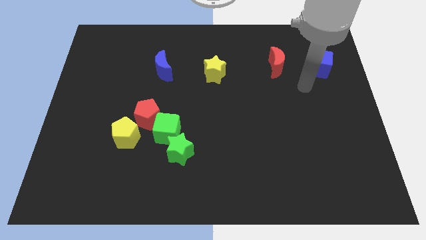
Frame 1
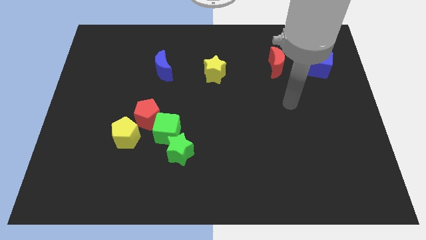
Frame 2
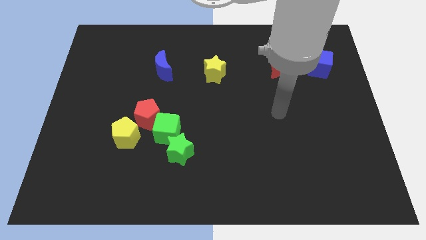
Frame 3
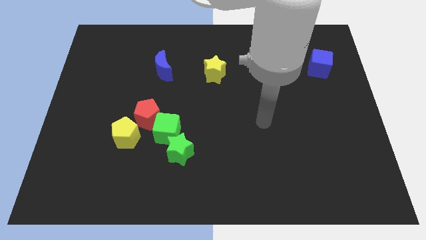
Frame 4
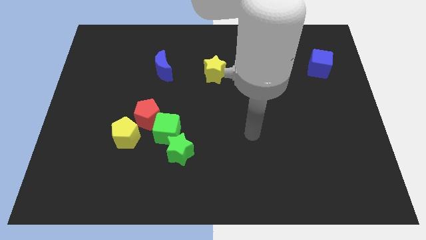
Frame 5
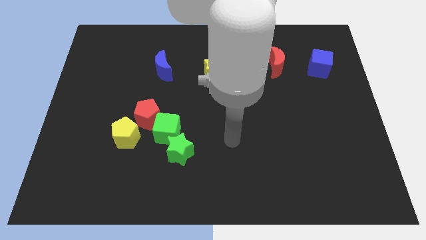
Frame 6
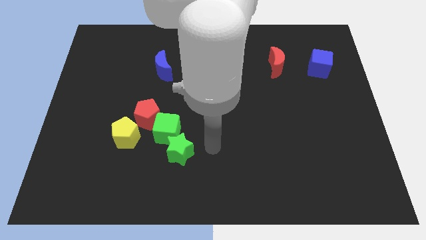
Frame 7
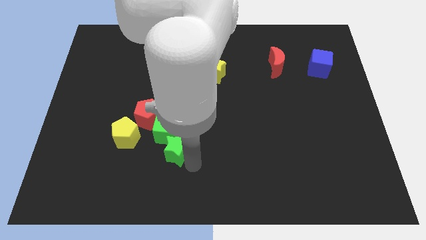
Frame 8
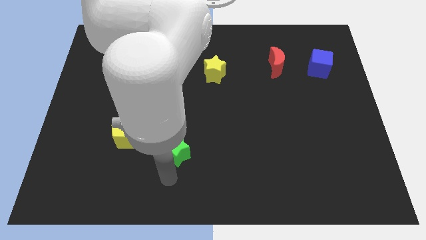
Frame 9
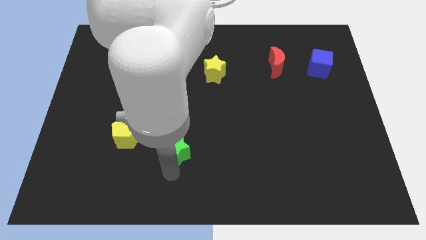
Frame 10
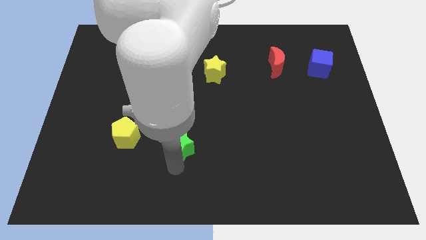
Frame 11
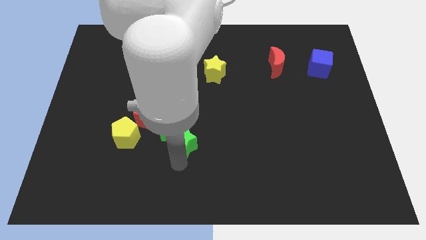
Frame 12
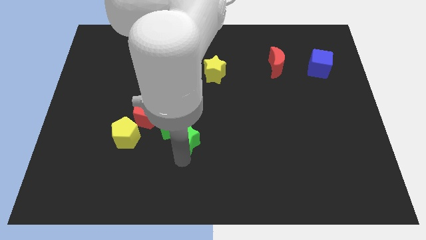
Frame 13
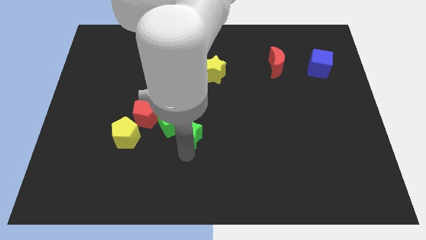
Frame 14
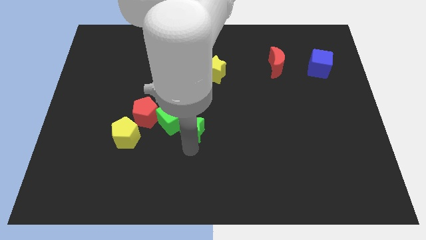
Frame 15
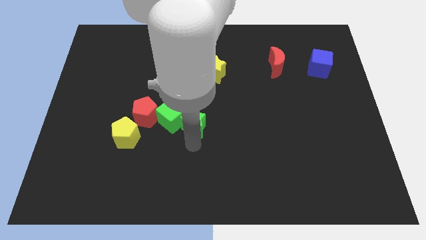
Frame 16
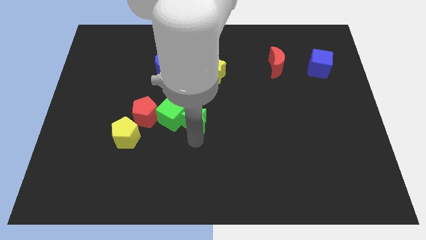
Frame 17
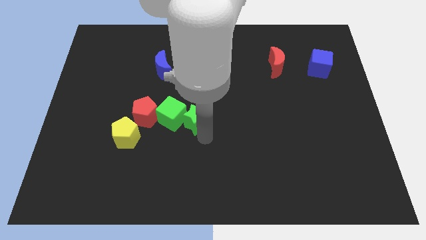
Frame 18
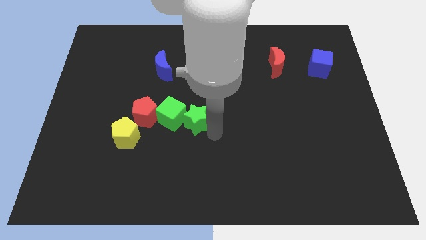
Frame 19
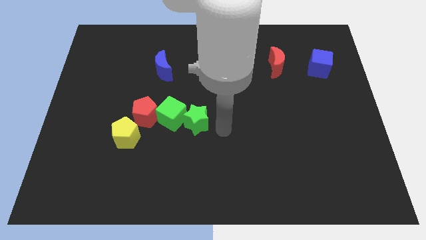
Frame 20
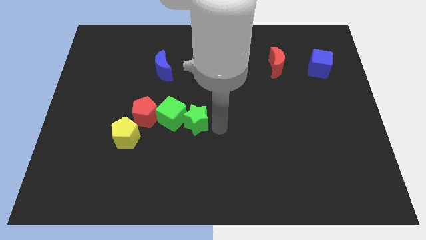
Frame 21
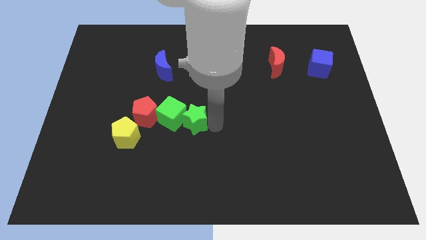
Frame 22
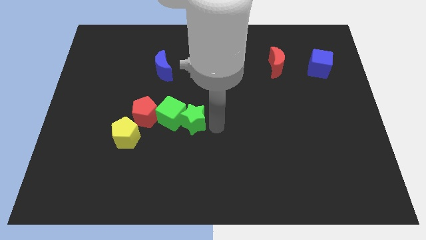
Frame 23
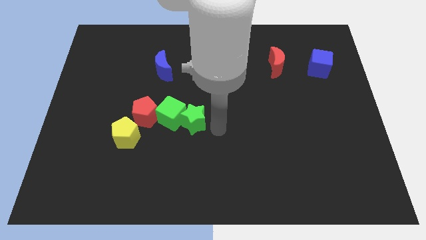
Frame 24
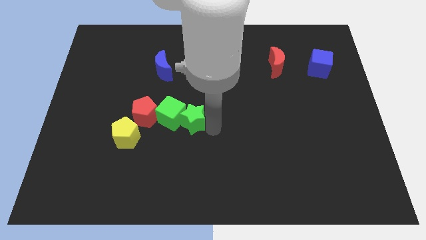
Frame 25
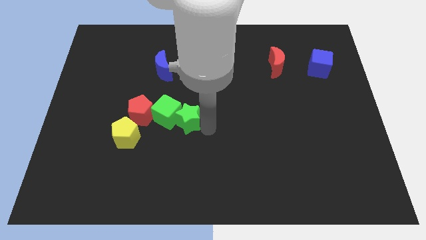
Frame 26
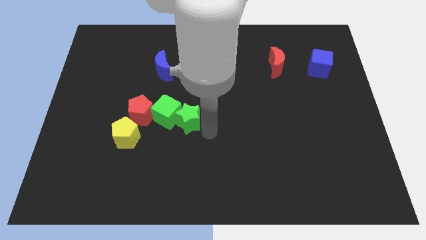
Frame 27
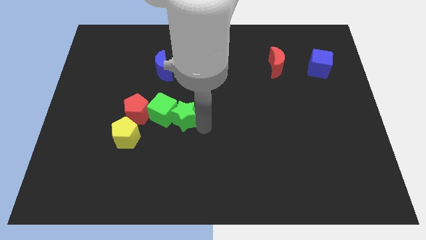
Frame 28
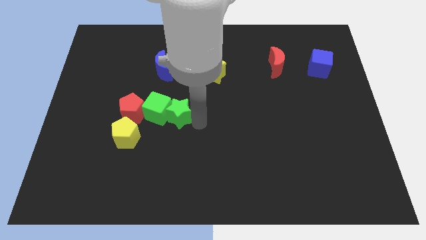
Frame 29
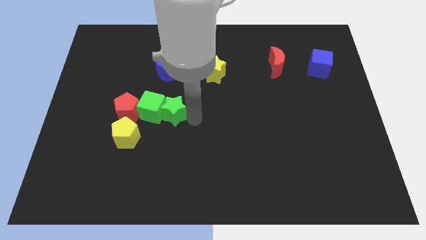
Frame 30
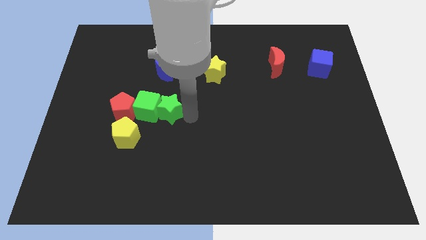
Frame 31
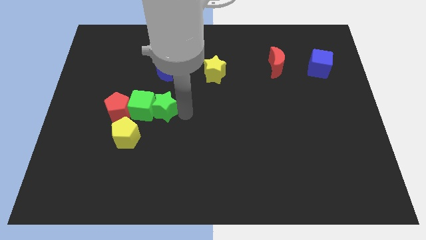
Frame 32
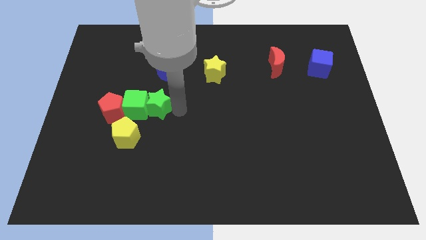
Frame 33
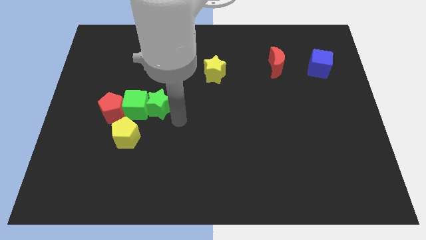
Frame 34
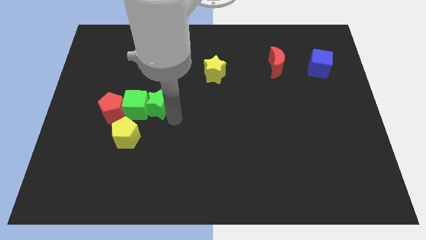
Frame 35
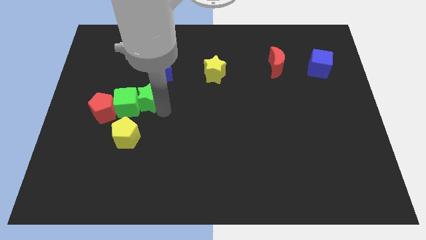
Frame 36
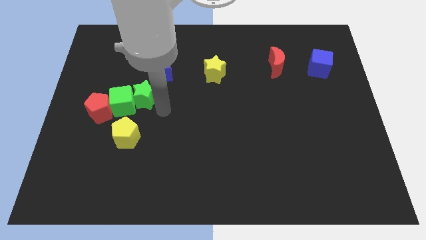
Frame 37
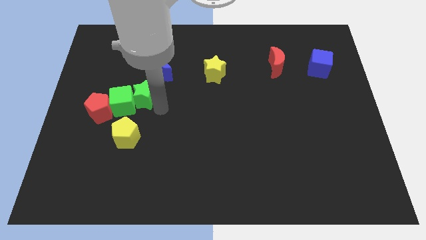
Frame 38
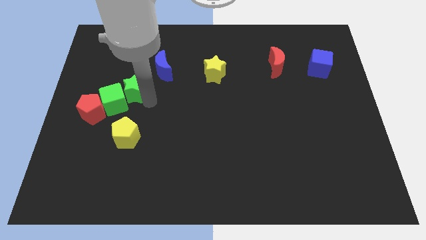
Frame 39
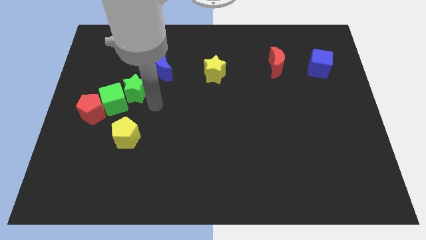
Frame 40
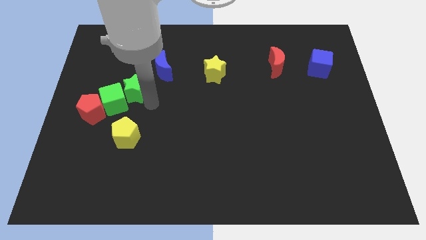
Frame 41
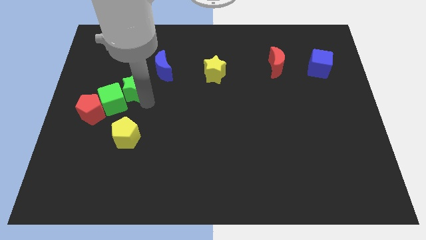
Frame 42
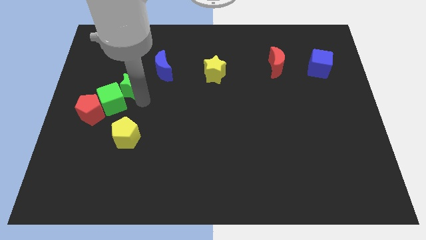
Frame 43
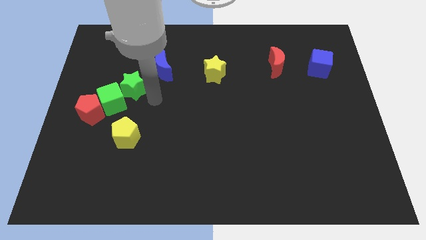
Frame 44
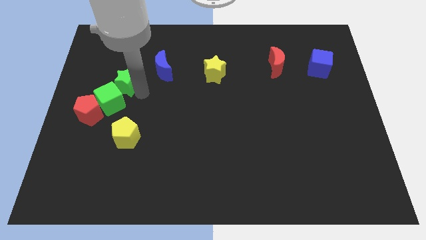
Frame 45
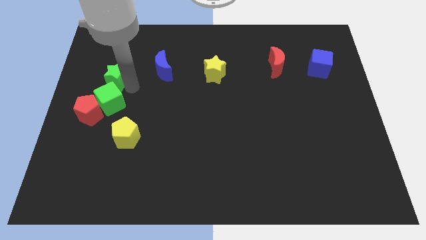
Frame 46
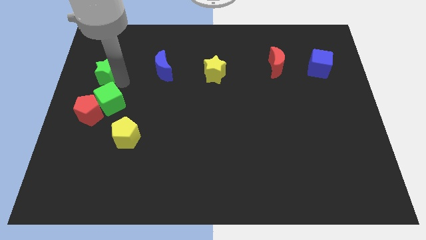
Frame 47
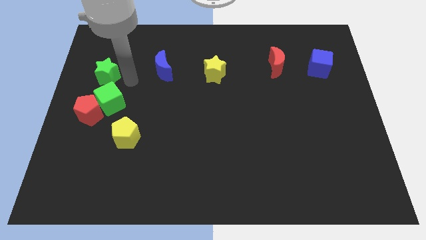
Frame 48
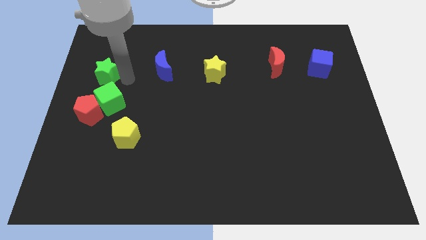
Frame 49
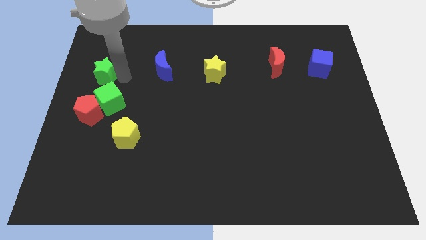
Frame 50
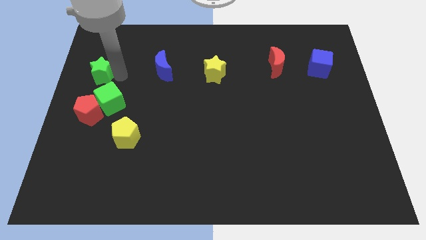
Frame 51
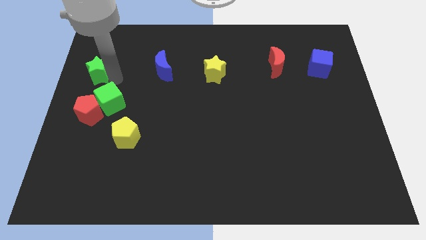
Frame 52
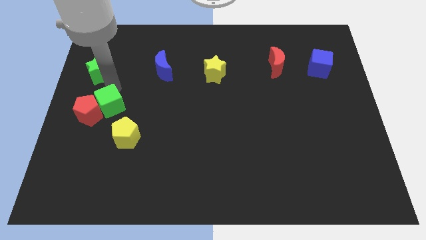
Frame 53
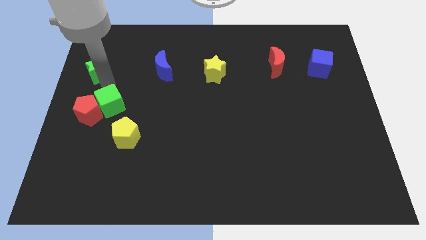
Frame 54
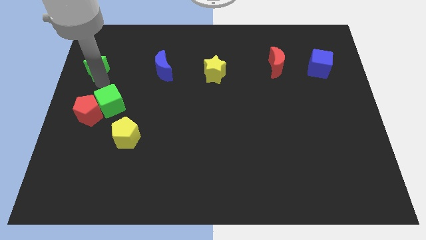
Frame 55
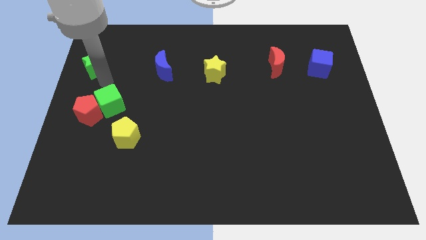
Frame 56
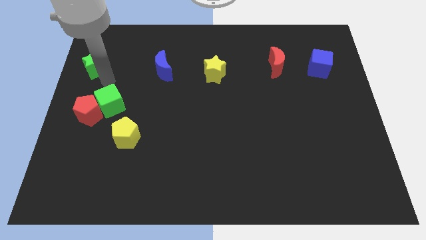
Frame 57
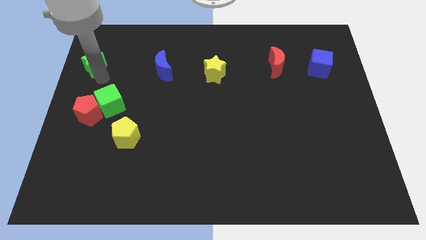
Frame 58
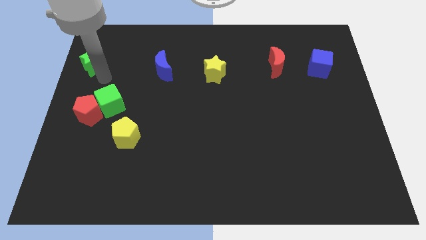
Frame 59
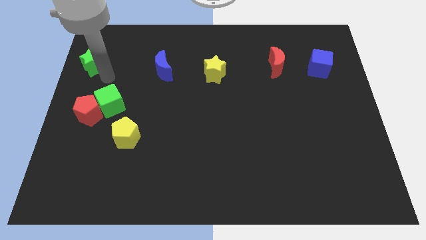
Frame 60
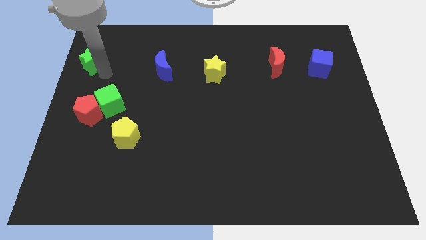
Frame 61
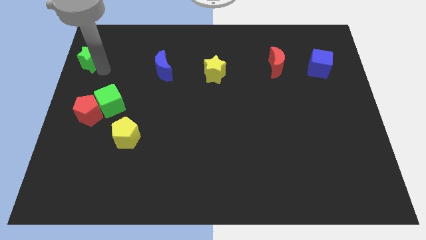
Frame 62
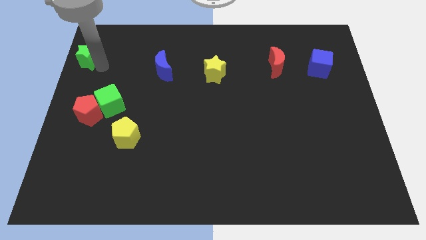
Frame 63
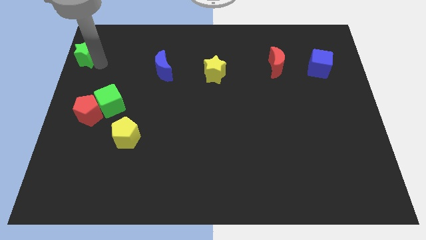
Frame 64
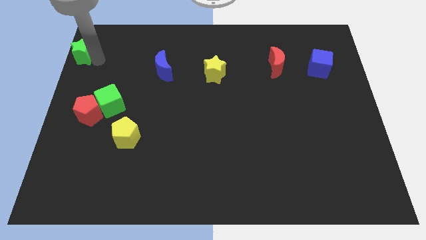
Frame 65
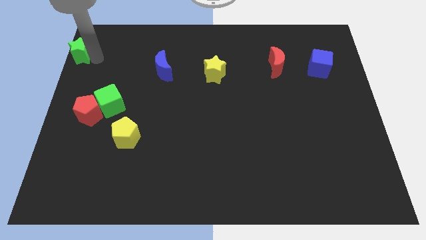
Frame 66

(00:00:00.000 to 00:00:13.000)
push the green star to the upper left corner
